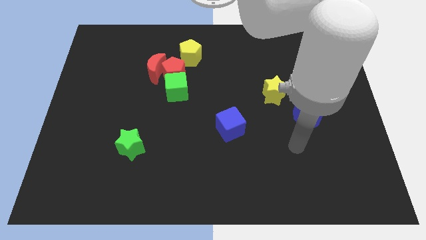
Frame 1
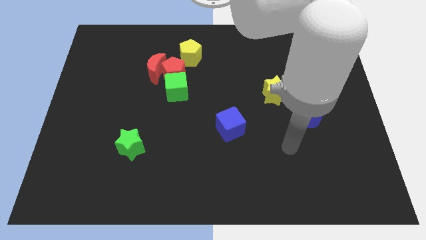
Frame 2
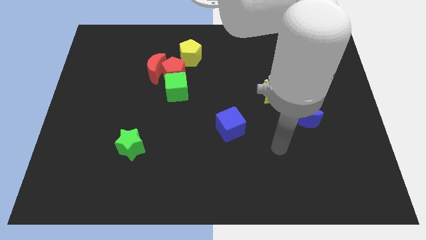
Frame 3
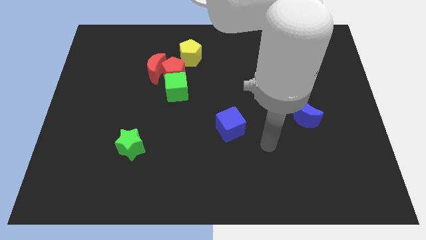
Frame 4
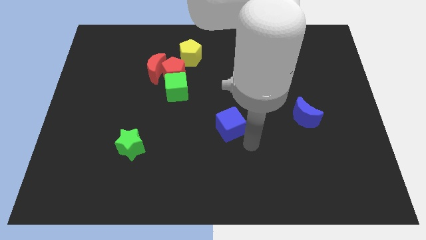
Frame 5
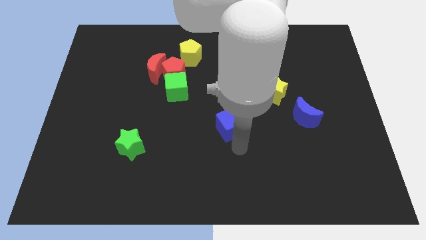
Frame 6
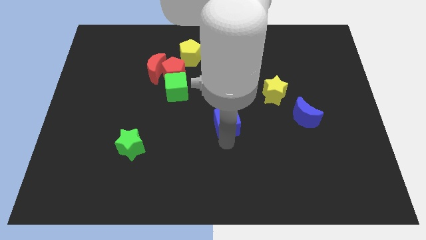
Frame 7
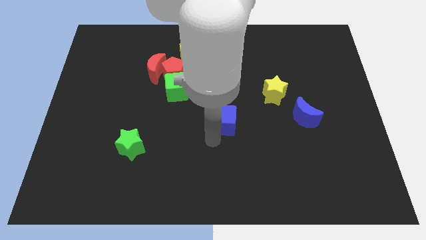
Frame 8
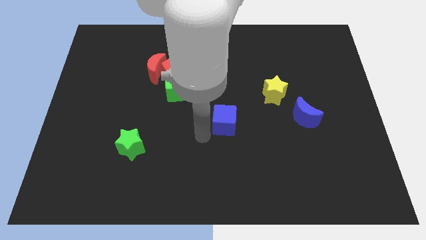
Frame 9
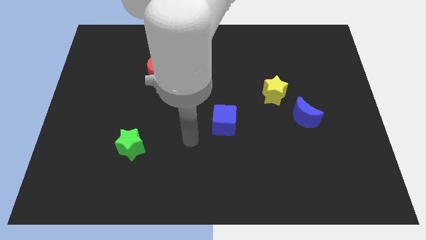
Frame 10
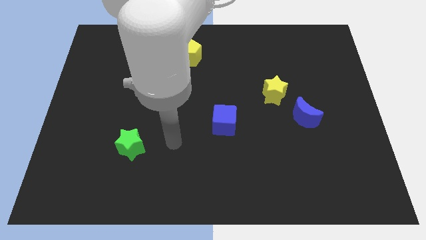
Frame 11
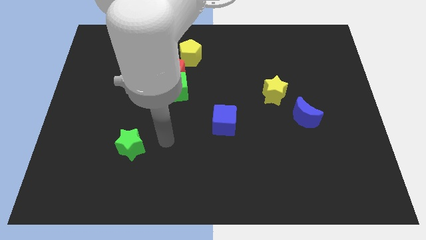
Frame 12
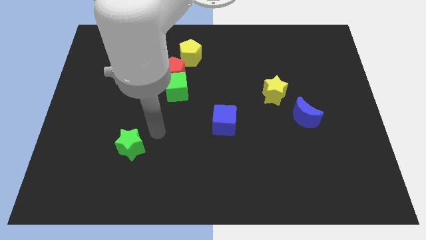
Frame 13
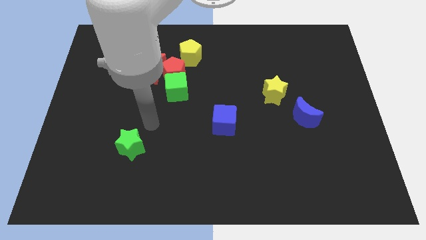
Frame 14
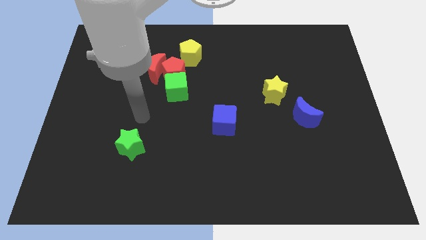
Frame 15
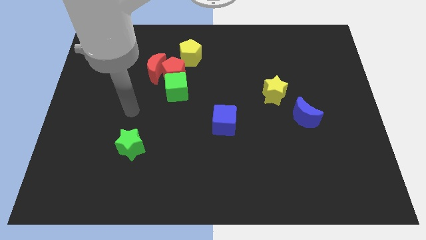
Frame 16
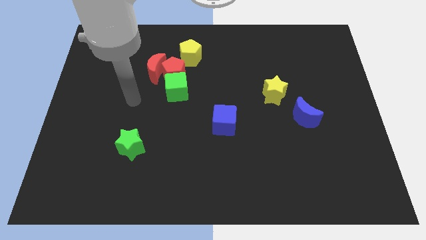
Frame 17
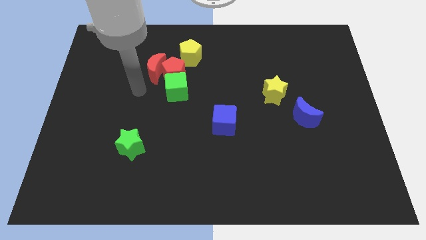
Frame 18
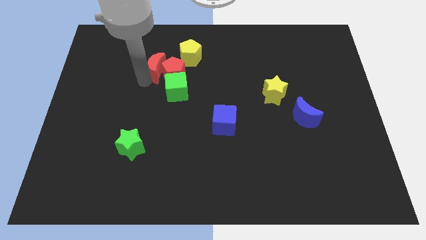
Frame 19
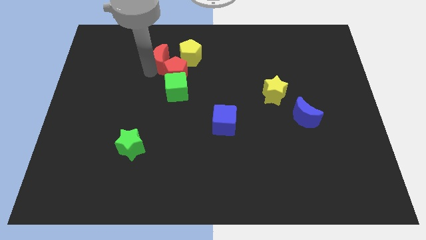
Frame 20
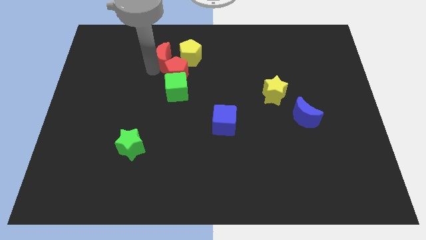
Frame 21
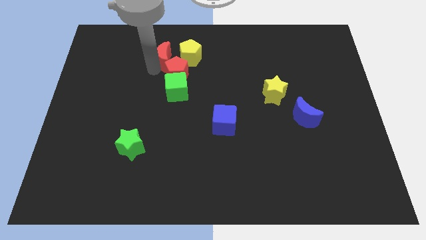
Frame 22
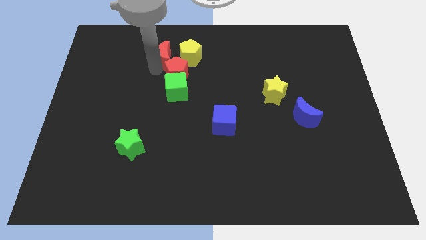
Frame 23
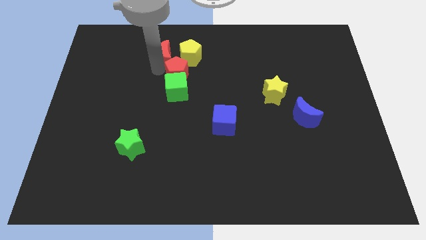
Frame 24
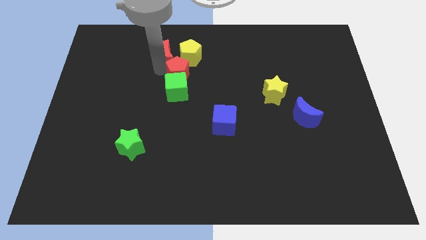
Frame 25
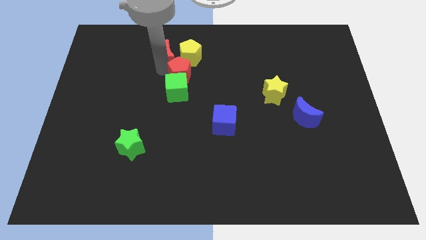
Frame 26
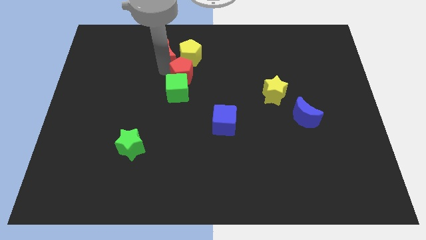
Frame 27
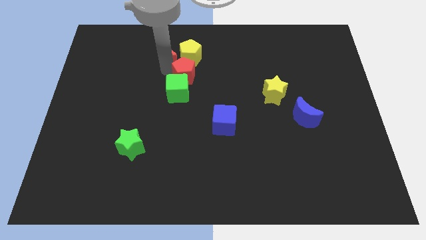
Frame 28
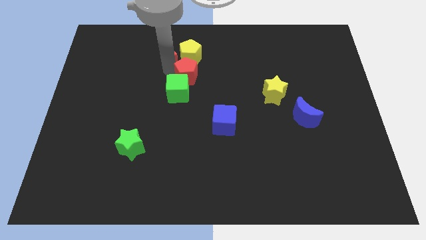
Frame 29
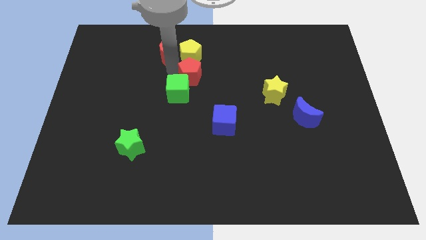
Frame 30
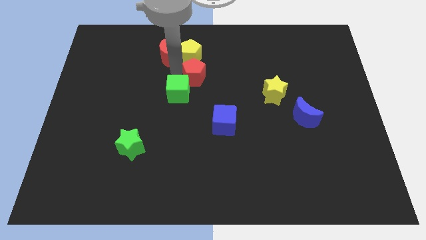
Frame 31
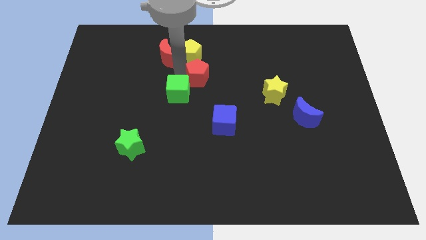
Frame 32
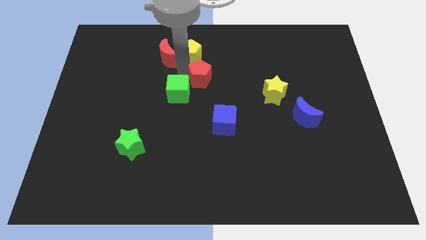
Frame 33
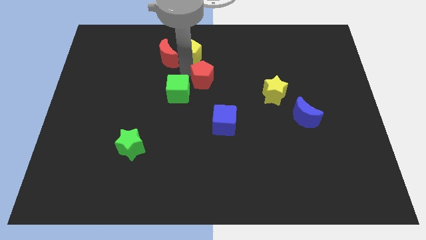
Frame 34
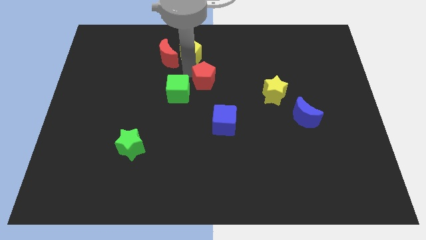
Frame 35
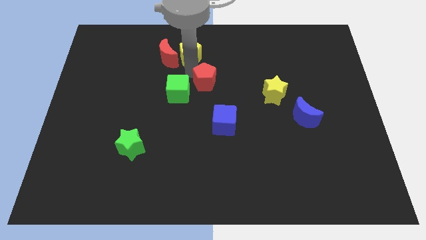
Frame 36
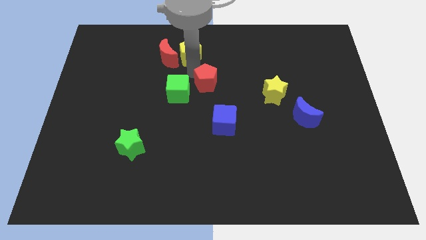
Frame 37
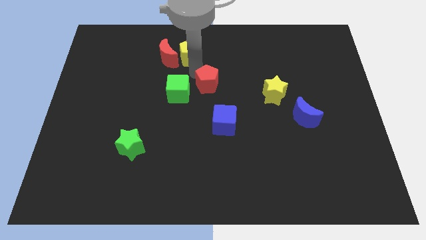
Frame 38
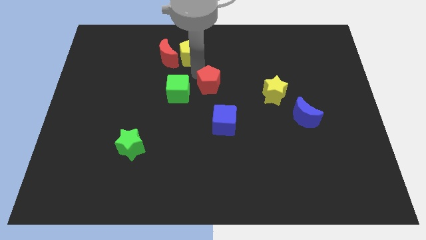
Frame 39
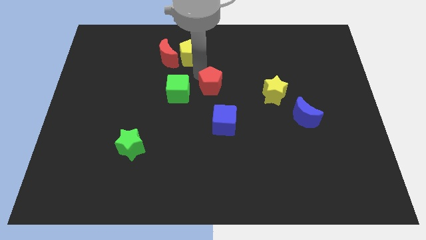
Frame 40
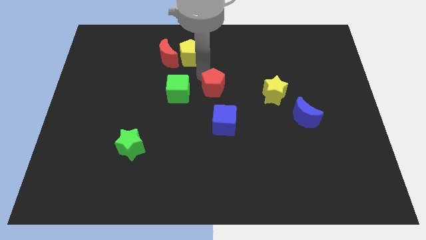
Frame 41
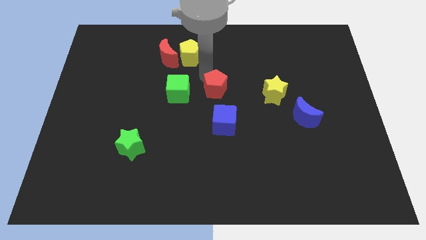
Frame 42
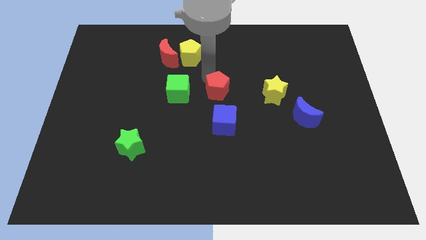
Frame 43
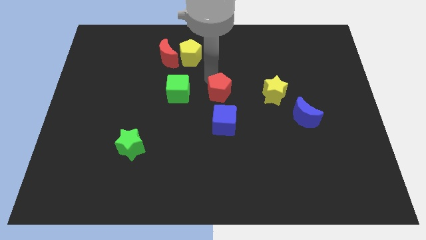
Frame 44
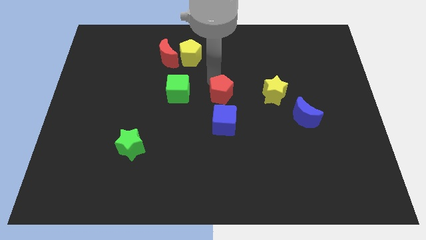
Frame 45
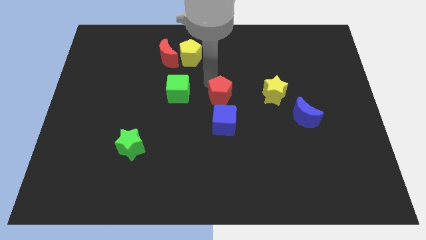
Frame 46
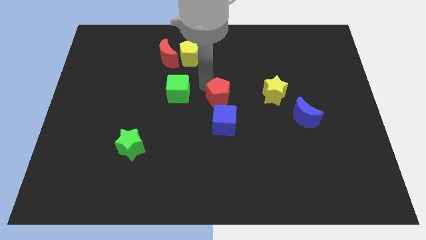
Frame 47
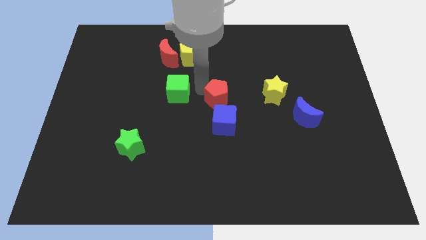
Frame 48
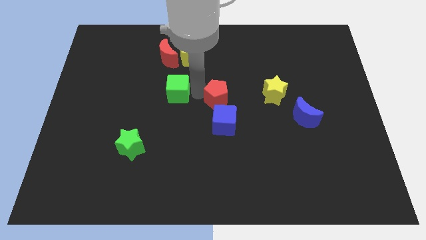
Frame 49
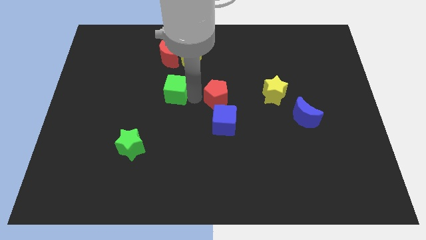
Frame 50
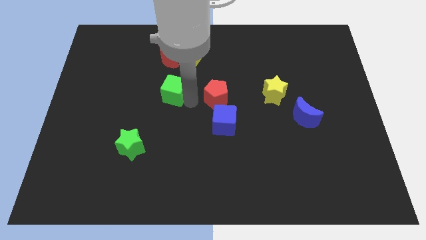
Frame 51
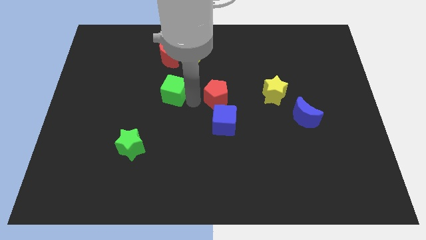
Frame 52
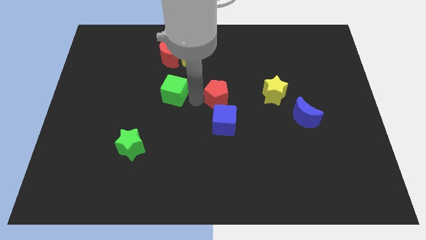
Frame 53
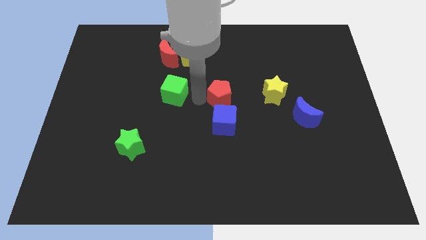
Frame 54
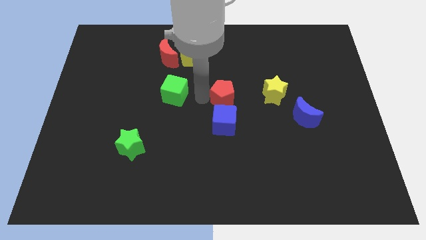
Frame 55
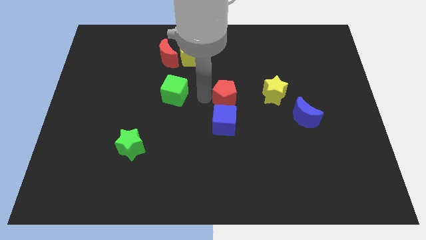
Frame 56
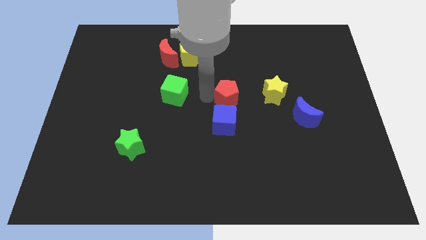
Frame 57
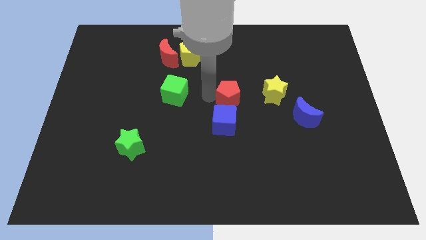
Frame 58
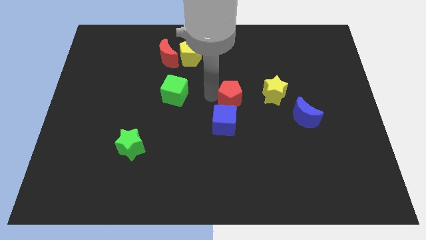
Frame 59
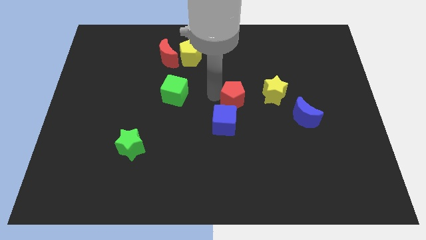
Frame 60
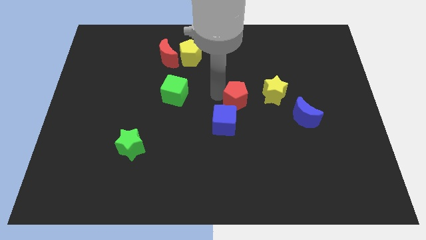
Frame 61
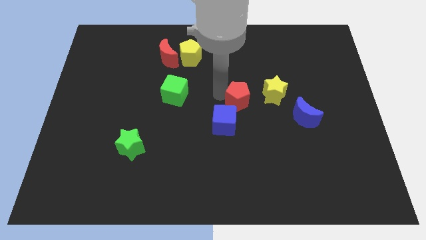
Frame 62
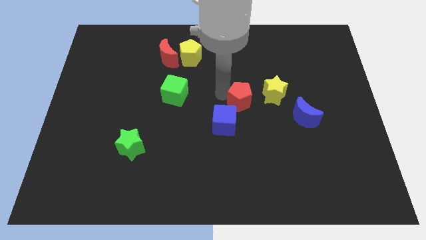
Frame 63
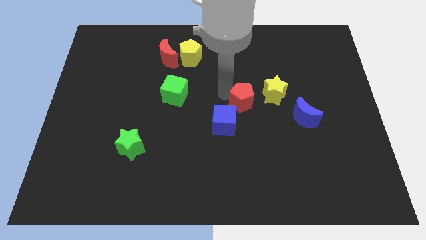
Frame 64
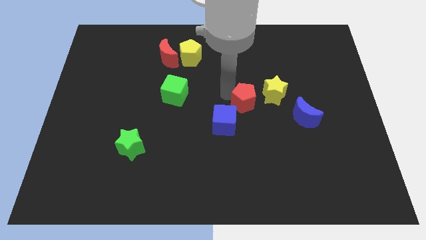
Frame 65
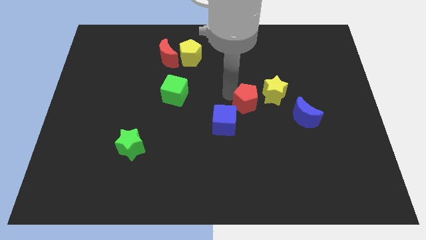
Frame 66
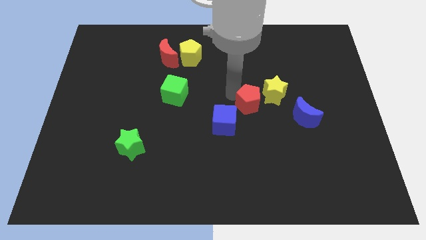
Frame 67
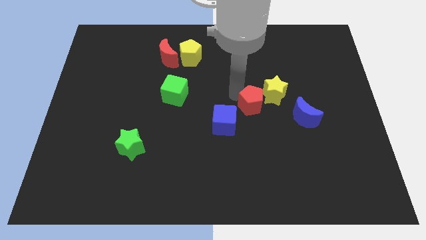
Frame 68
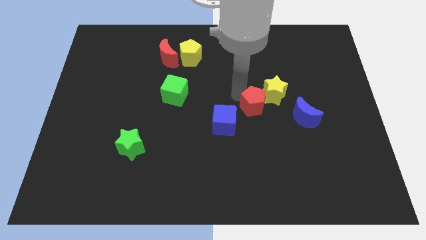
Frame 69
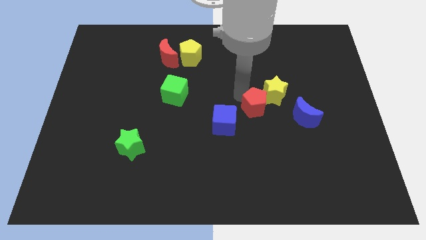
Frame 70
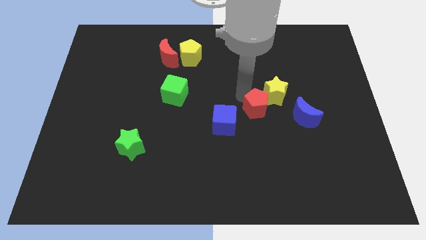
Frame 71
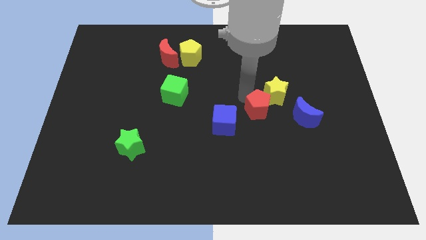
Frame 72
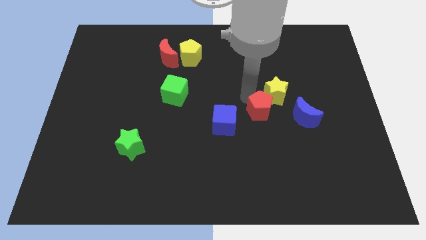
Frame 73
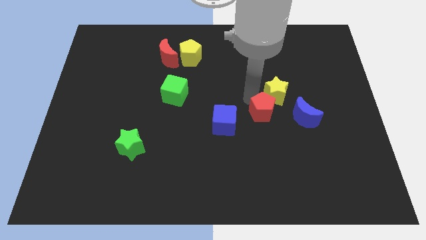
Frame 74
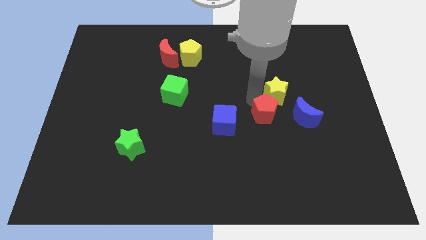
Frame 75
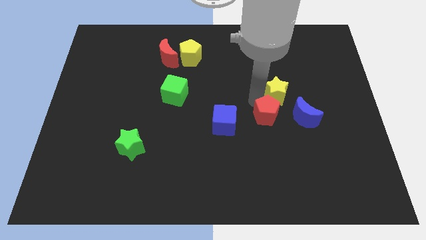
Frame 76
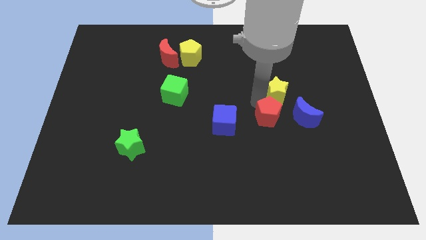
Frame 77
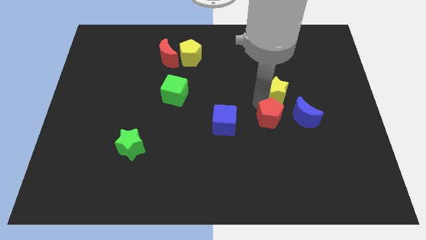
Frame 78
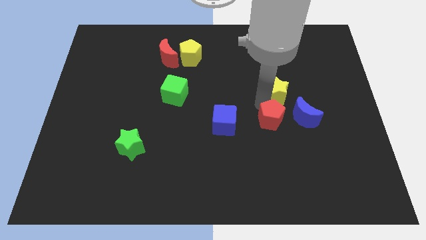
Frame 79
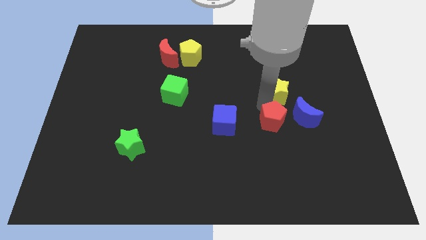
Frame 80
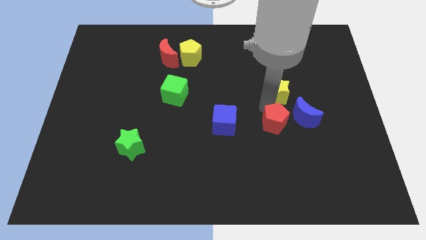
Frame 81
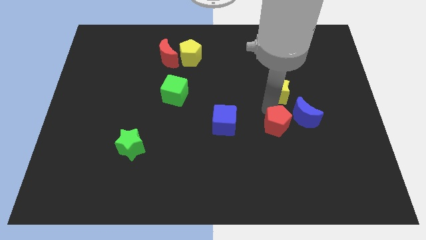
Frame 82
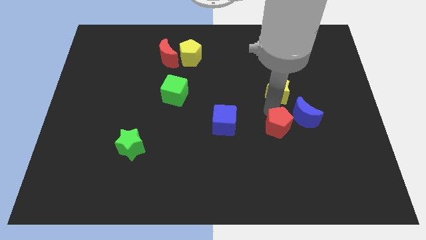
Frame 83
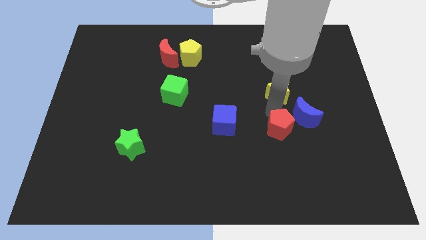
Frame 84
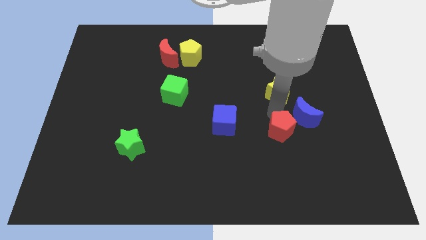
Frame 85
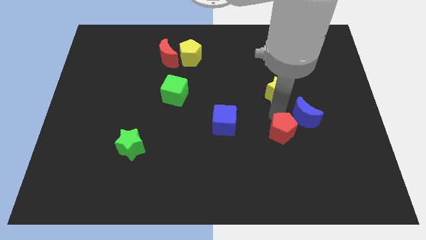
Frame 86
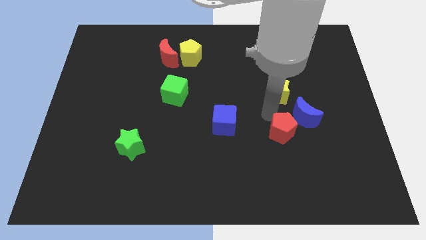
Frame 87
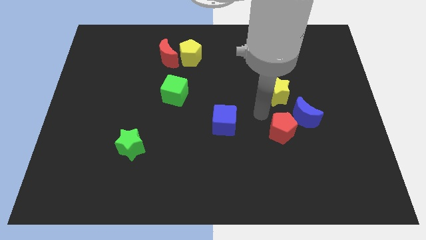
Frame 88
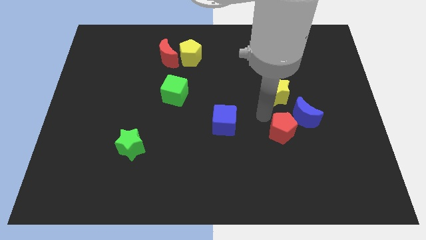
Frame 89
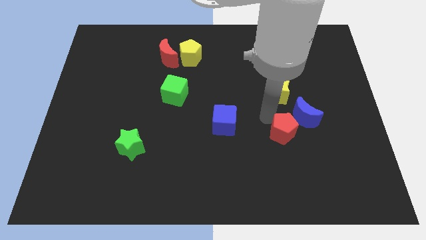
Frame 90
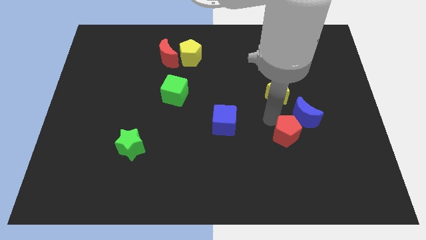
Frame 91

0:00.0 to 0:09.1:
put the red pentagon to the bottom side of the blue moon
